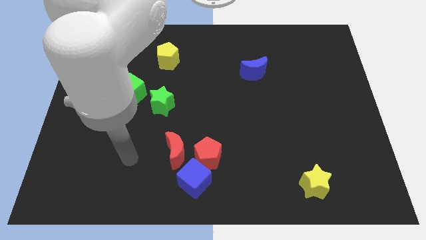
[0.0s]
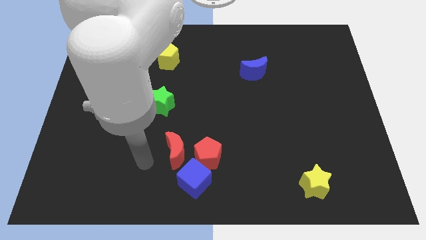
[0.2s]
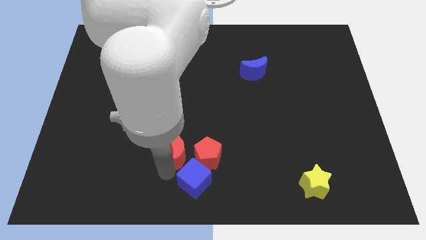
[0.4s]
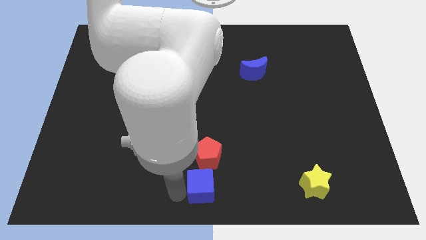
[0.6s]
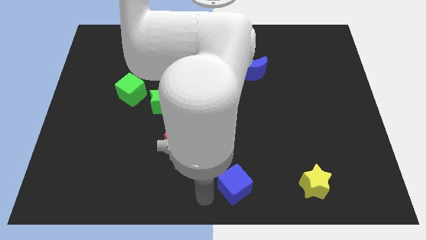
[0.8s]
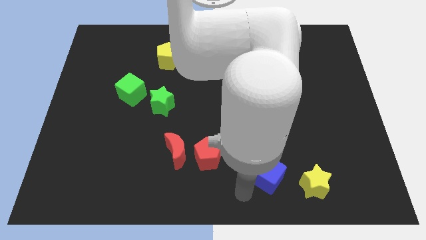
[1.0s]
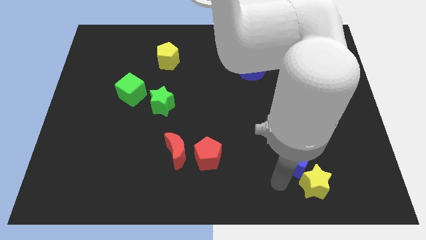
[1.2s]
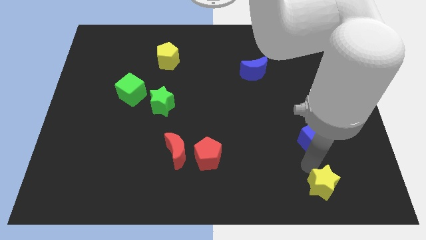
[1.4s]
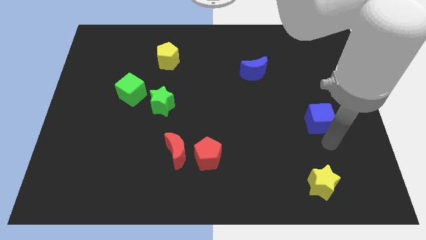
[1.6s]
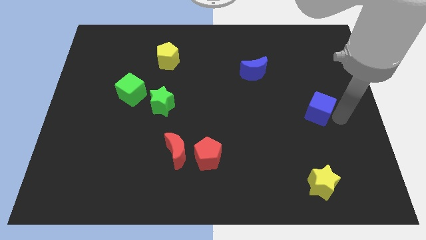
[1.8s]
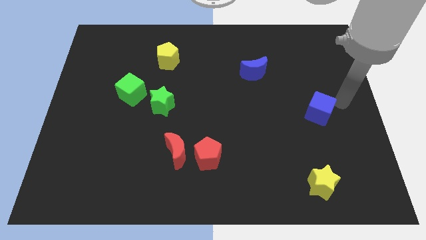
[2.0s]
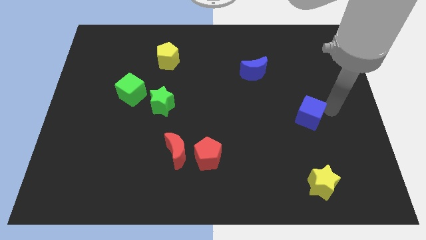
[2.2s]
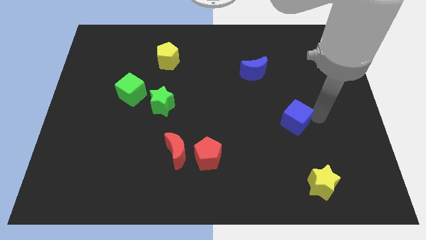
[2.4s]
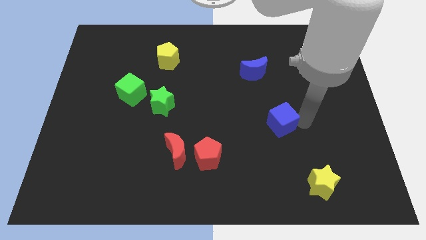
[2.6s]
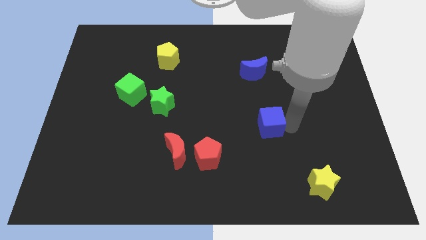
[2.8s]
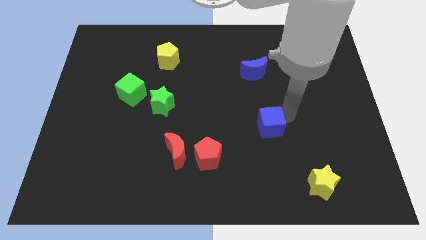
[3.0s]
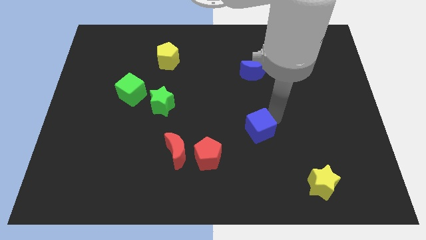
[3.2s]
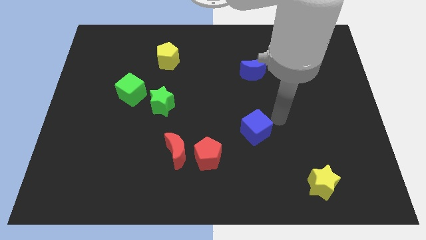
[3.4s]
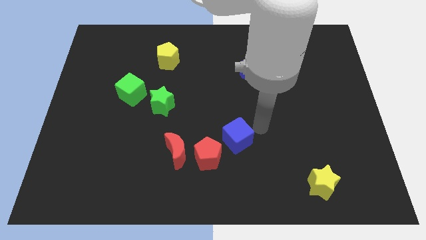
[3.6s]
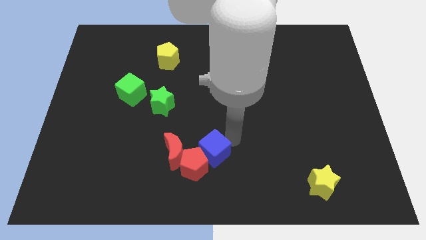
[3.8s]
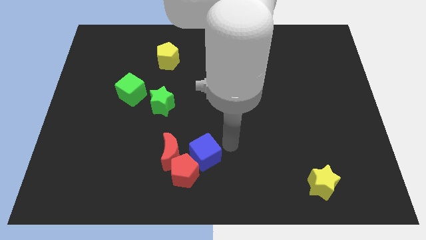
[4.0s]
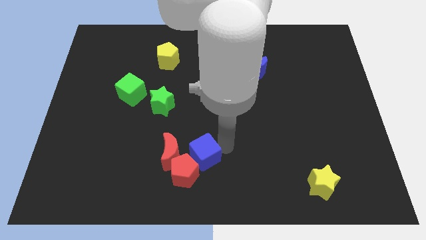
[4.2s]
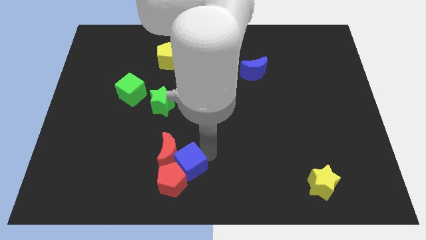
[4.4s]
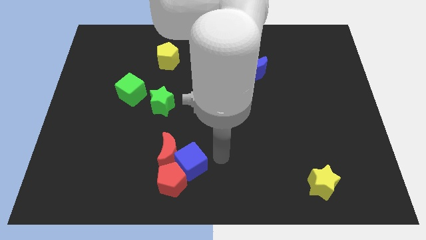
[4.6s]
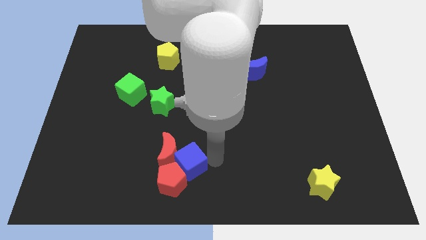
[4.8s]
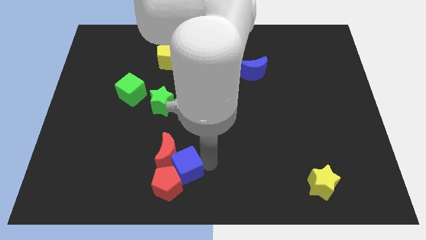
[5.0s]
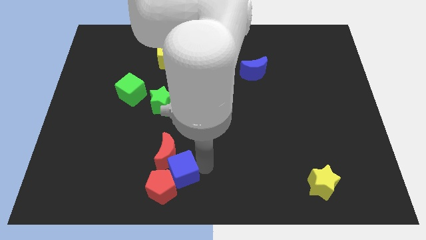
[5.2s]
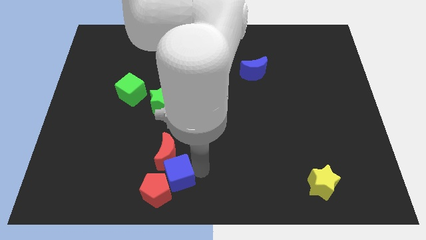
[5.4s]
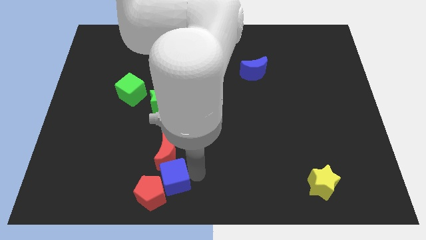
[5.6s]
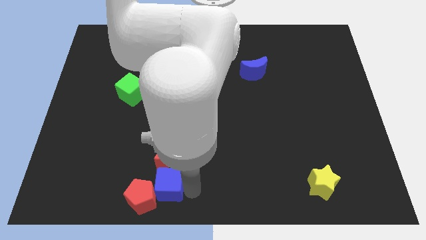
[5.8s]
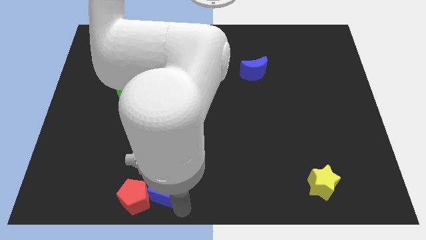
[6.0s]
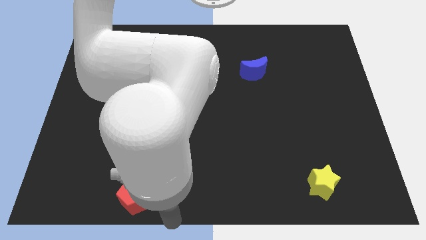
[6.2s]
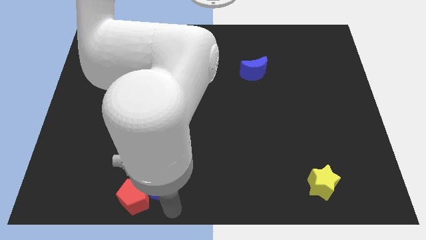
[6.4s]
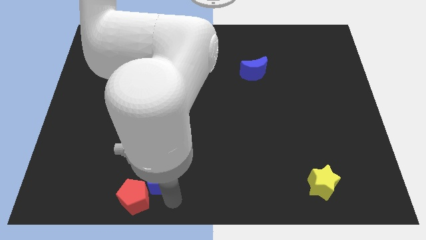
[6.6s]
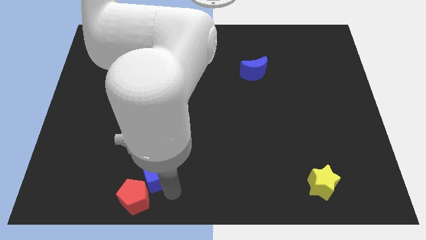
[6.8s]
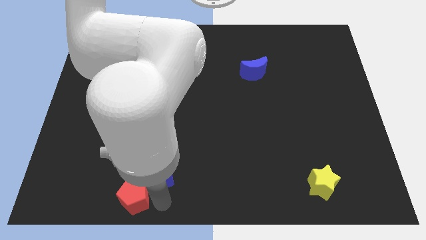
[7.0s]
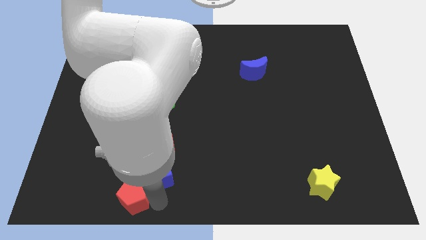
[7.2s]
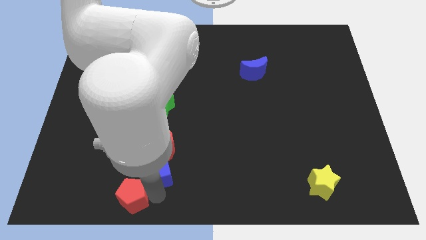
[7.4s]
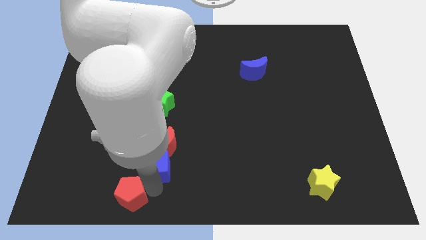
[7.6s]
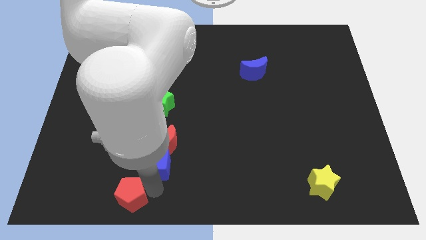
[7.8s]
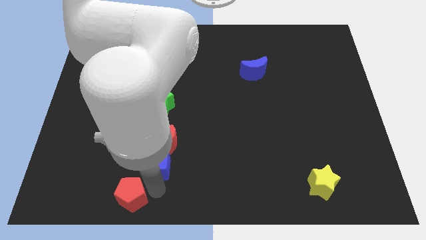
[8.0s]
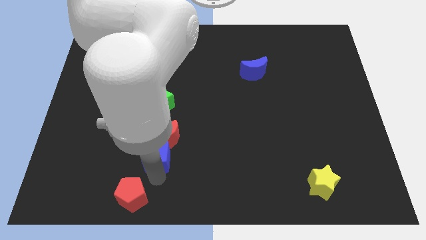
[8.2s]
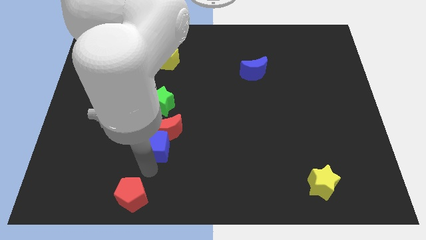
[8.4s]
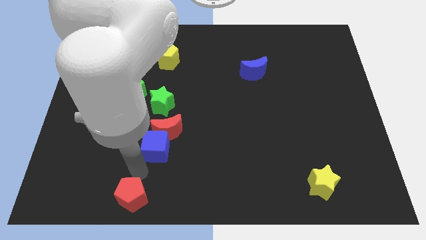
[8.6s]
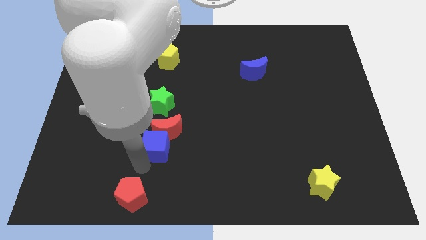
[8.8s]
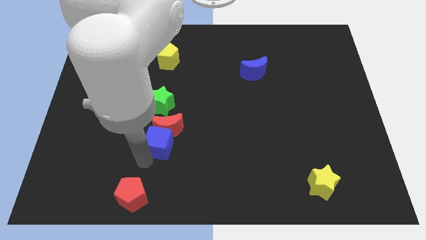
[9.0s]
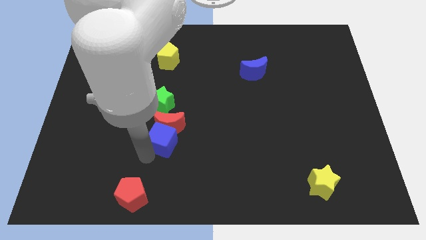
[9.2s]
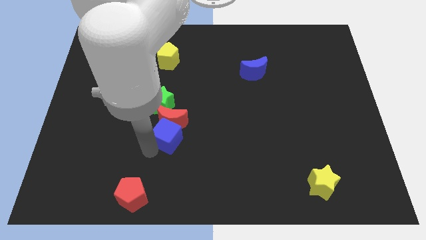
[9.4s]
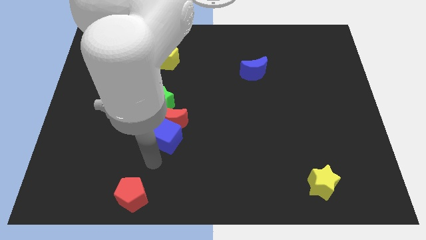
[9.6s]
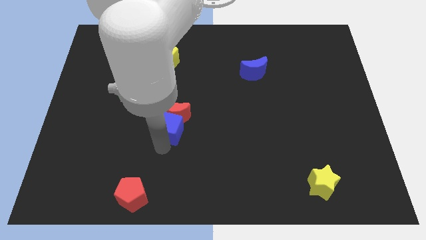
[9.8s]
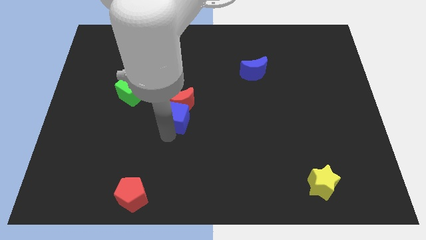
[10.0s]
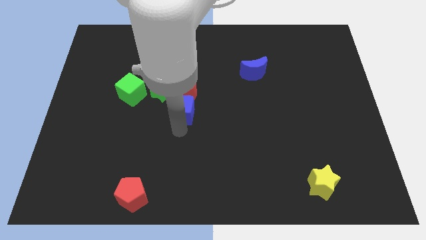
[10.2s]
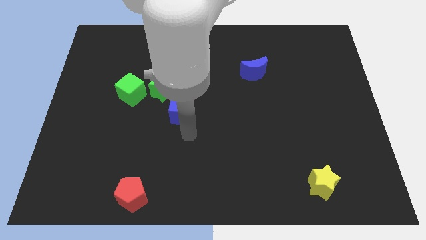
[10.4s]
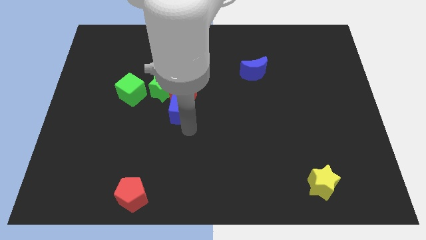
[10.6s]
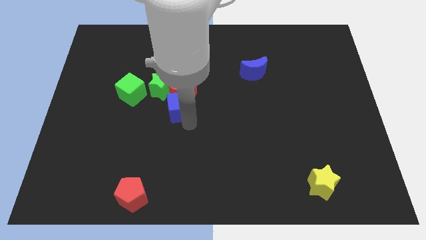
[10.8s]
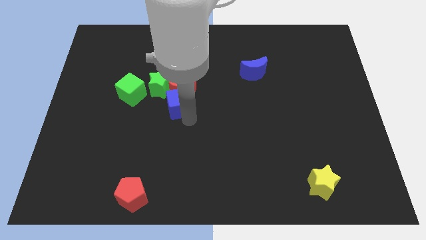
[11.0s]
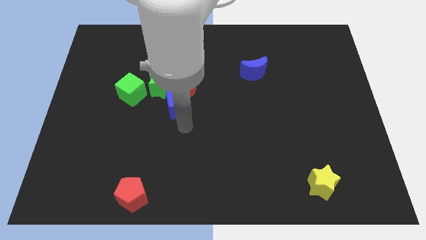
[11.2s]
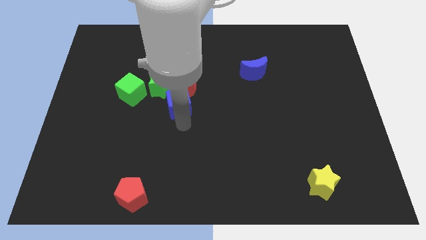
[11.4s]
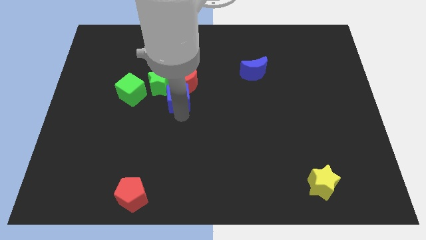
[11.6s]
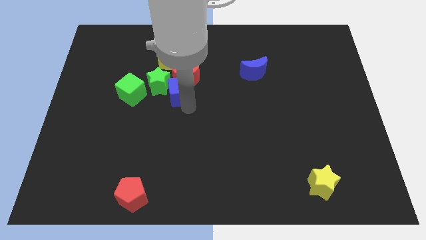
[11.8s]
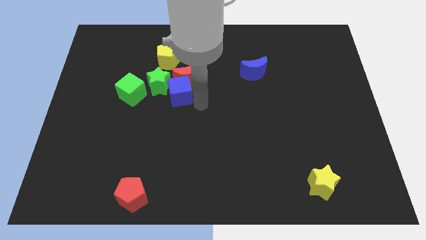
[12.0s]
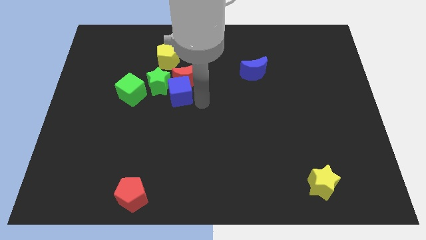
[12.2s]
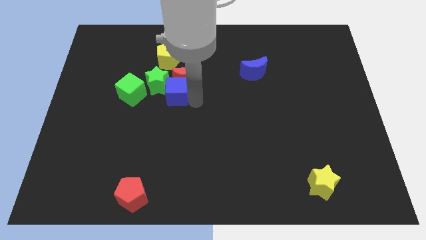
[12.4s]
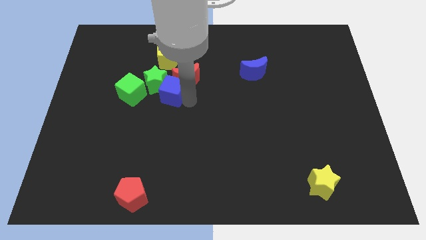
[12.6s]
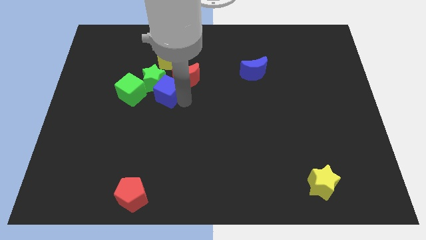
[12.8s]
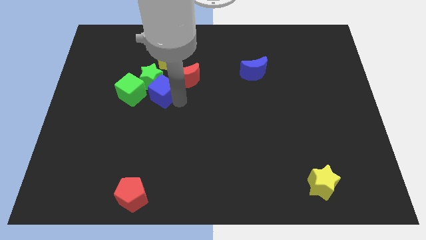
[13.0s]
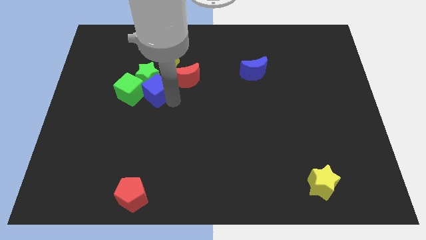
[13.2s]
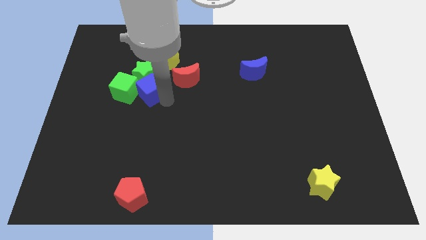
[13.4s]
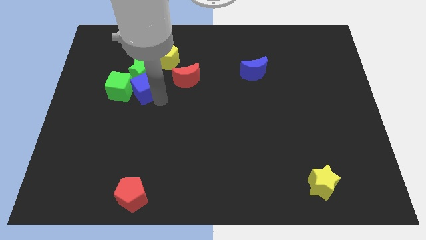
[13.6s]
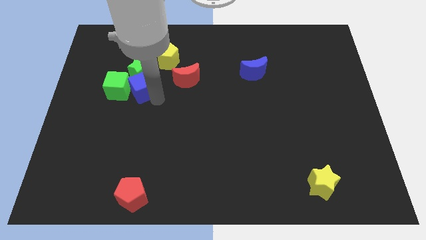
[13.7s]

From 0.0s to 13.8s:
move the blue cube to the bottom left of the yellow pentagon

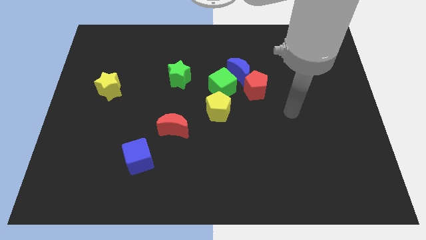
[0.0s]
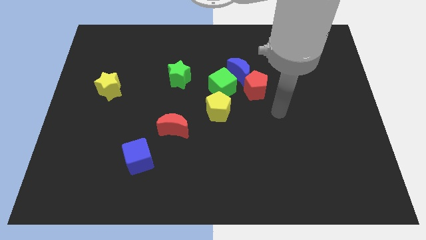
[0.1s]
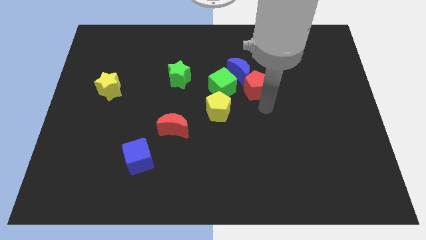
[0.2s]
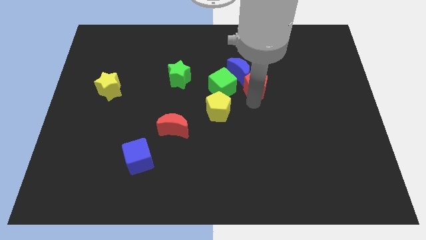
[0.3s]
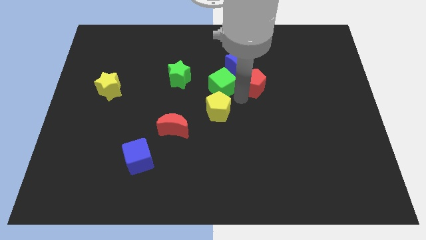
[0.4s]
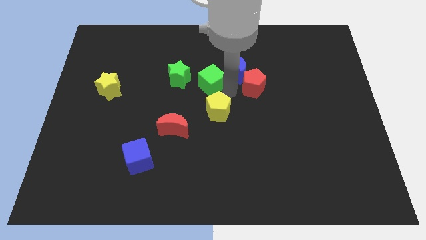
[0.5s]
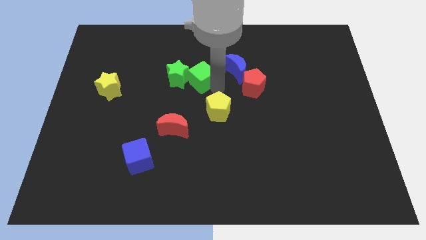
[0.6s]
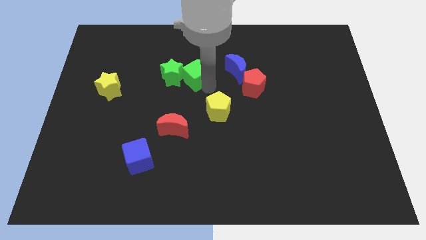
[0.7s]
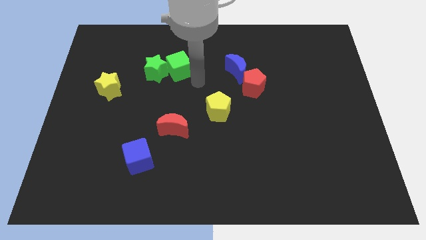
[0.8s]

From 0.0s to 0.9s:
move the green star to the top right of the yellow star

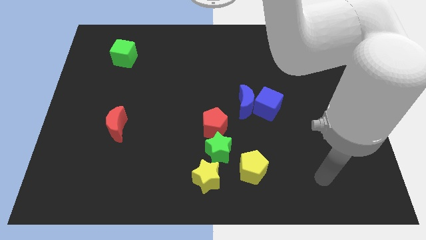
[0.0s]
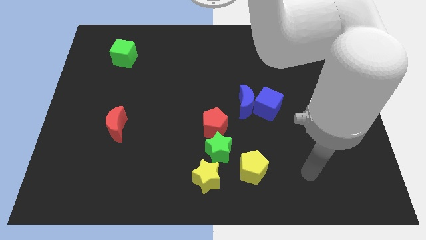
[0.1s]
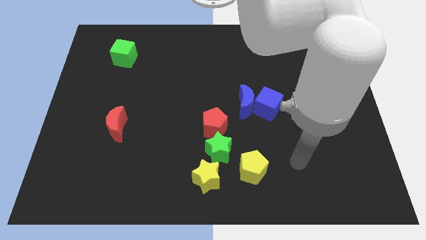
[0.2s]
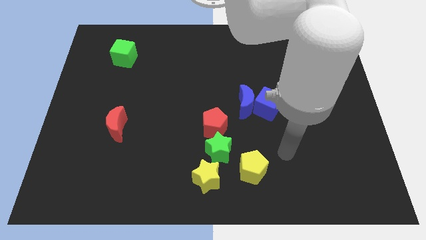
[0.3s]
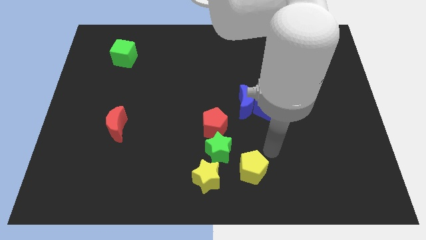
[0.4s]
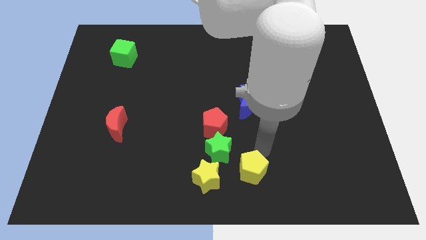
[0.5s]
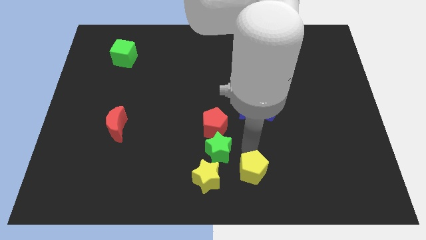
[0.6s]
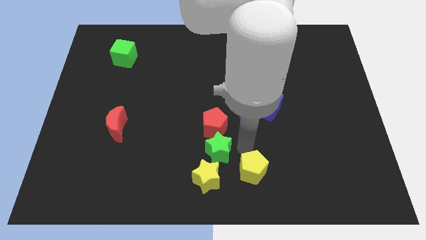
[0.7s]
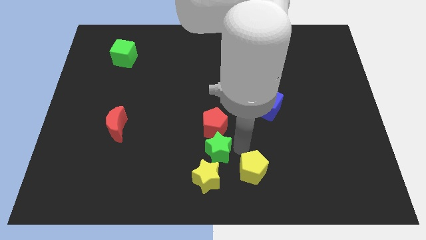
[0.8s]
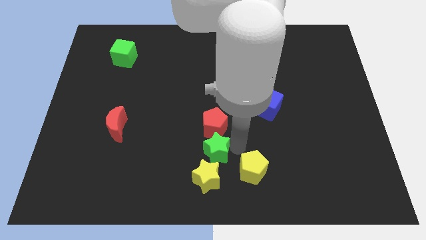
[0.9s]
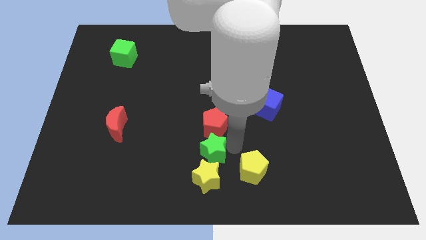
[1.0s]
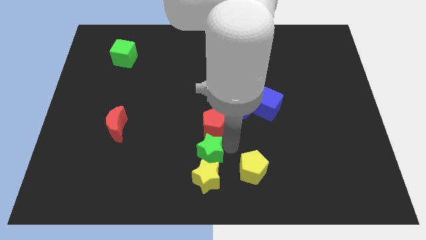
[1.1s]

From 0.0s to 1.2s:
put the green star to the top left side of the yellow star
